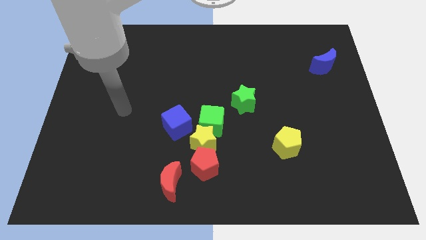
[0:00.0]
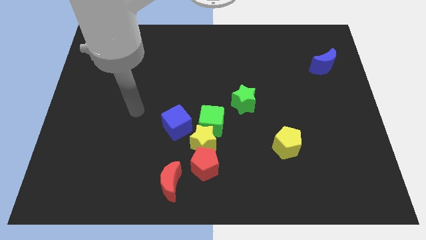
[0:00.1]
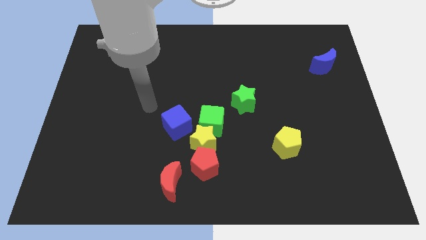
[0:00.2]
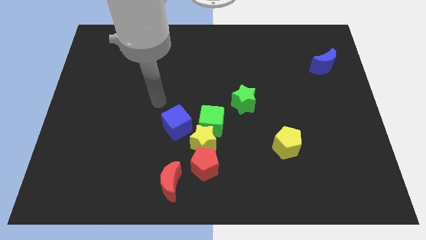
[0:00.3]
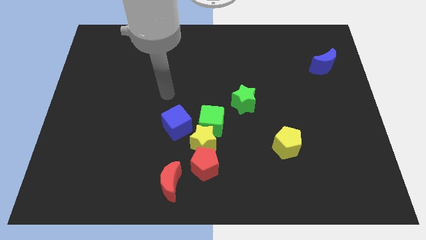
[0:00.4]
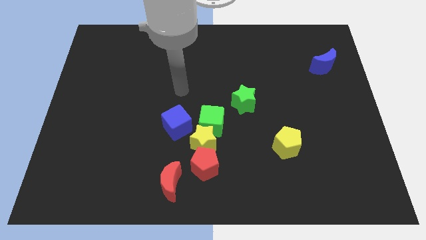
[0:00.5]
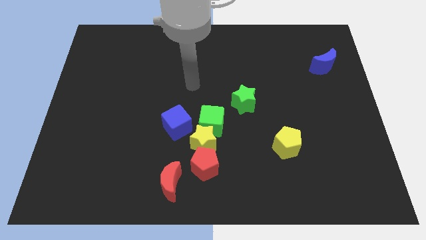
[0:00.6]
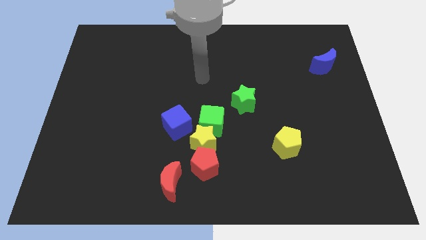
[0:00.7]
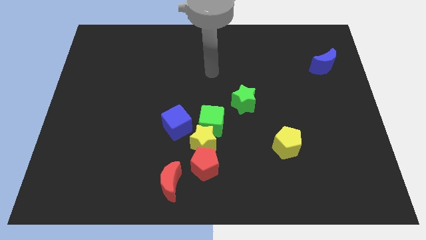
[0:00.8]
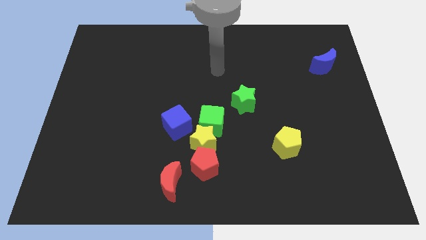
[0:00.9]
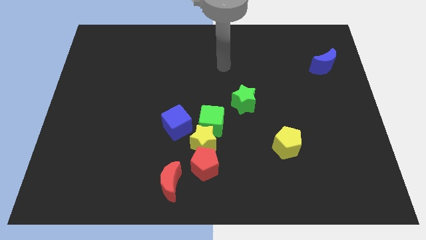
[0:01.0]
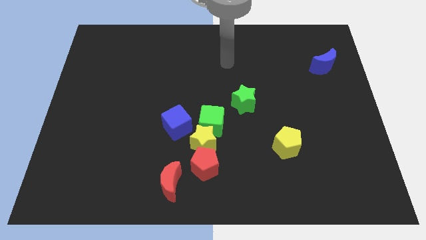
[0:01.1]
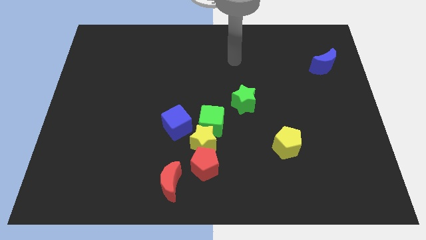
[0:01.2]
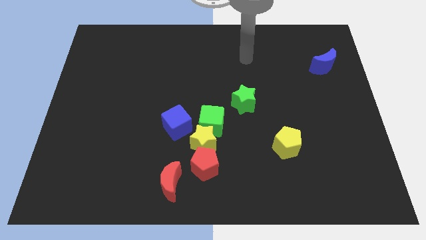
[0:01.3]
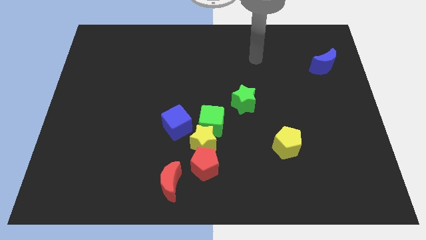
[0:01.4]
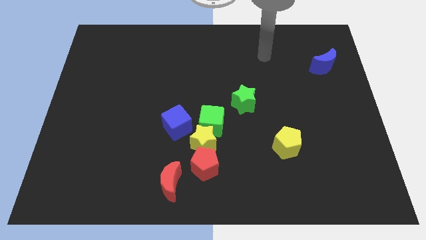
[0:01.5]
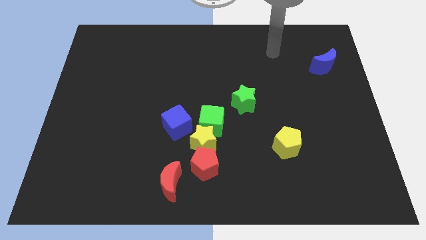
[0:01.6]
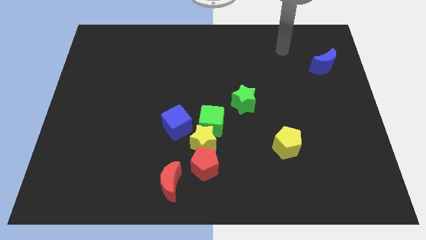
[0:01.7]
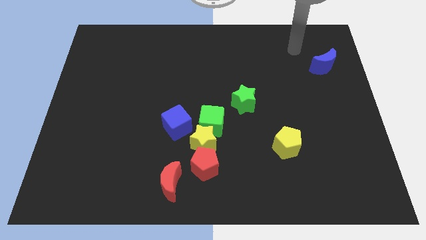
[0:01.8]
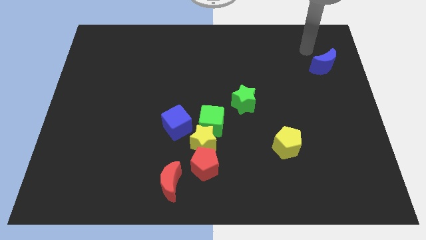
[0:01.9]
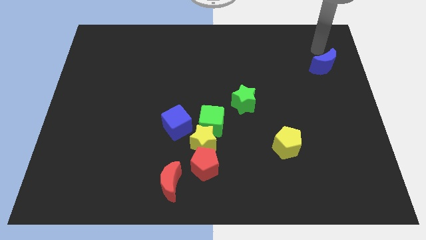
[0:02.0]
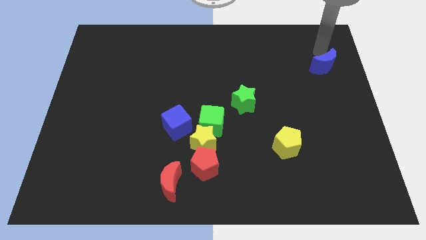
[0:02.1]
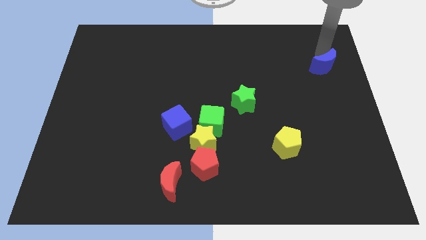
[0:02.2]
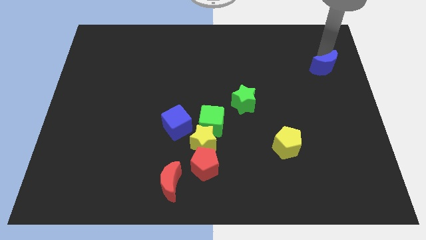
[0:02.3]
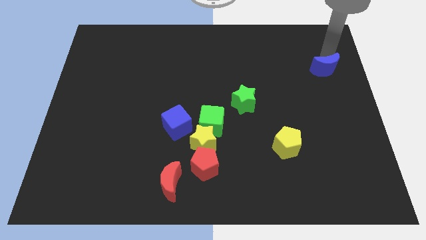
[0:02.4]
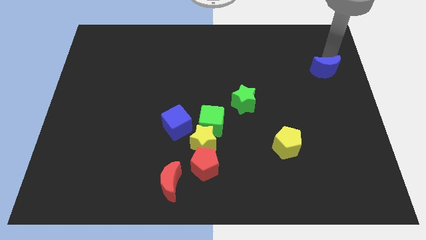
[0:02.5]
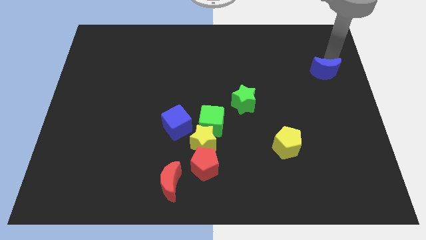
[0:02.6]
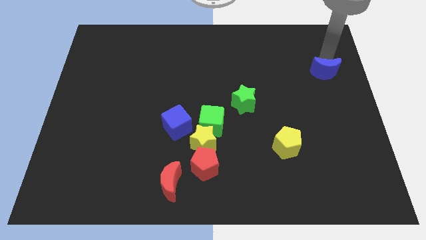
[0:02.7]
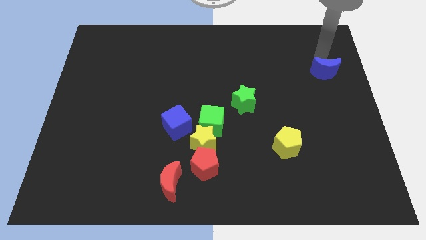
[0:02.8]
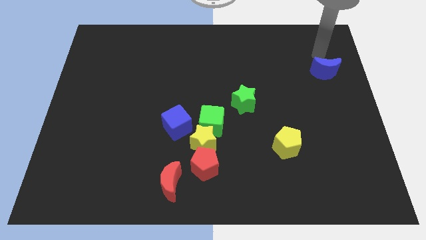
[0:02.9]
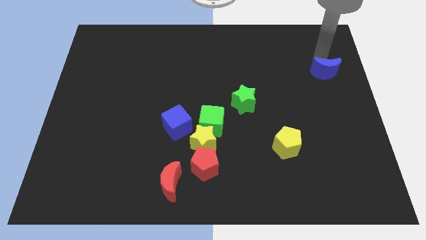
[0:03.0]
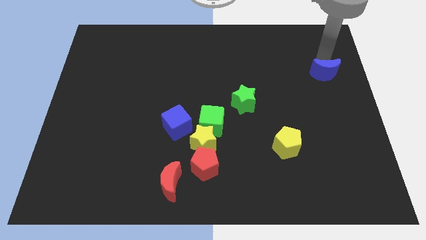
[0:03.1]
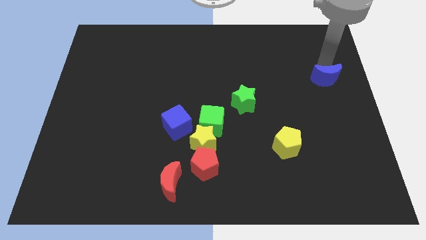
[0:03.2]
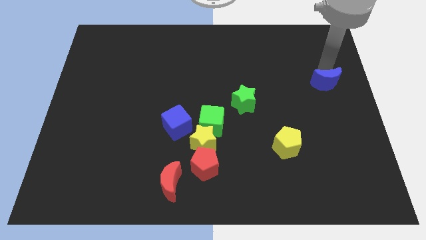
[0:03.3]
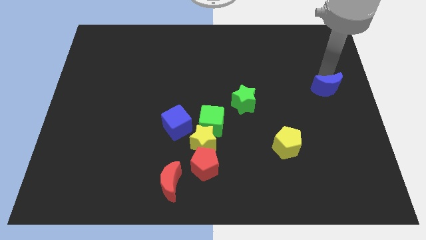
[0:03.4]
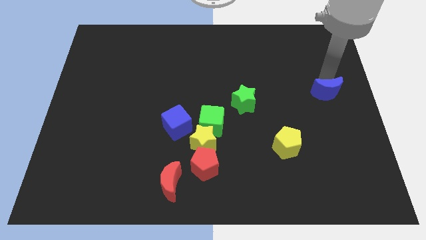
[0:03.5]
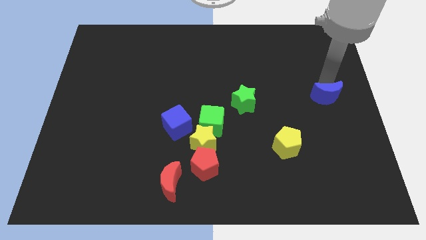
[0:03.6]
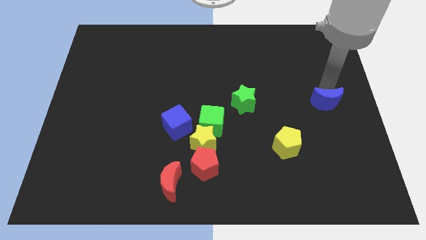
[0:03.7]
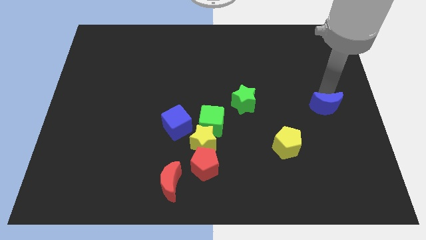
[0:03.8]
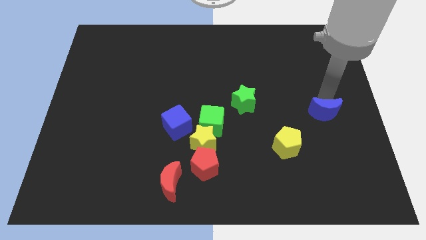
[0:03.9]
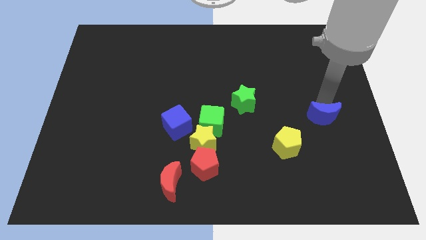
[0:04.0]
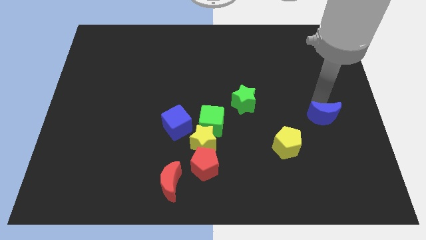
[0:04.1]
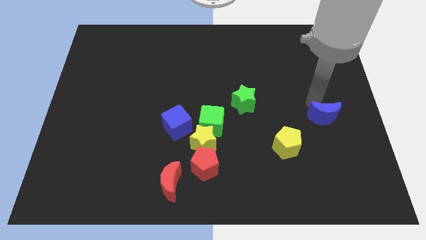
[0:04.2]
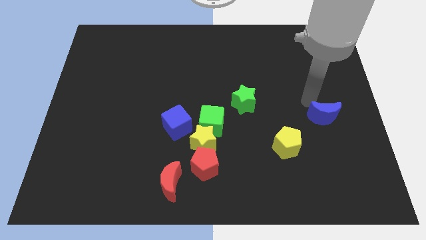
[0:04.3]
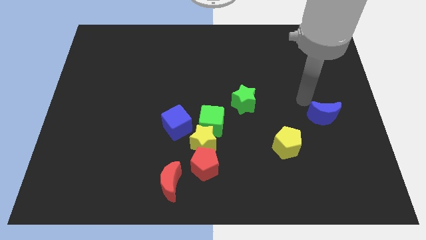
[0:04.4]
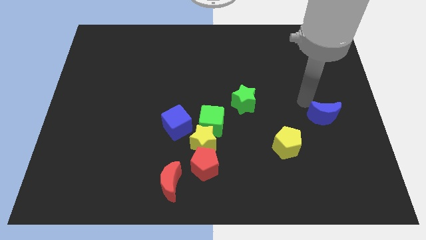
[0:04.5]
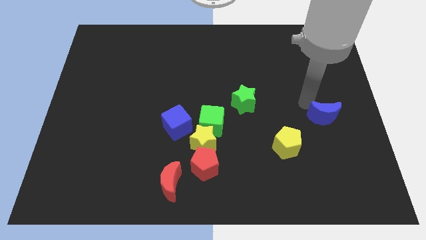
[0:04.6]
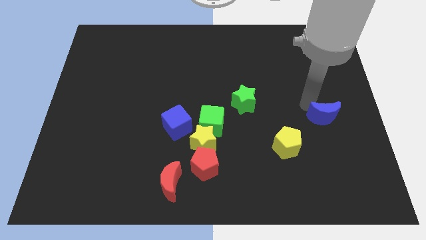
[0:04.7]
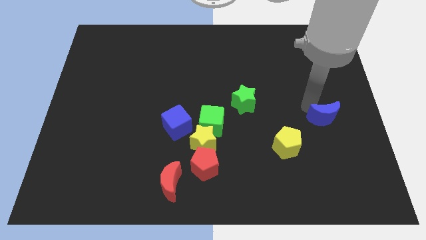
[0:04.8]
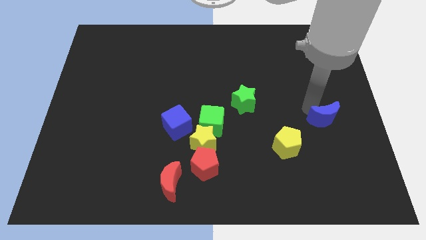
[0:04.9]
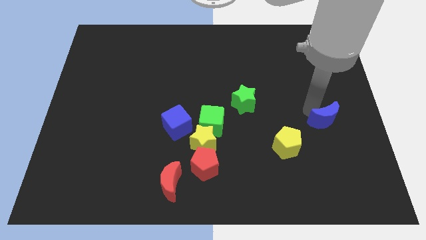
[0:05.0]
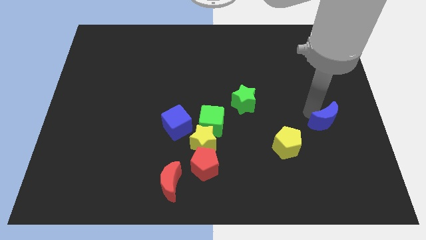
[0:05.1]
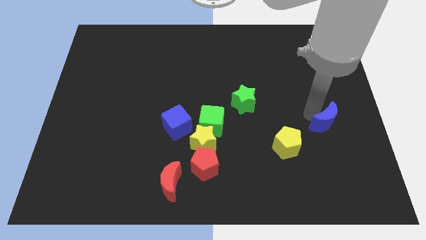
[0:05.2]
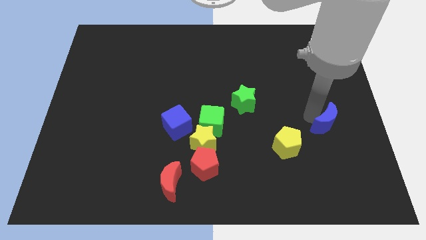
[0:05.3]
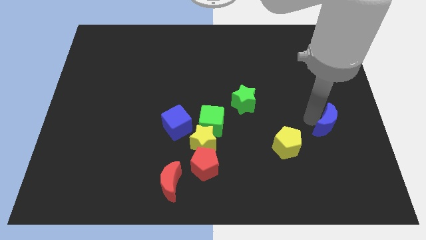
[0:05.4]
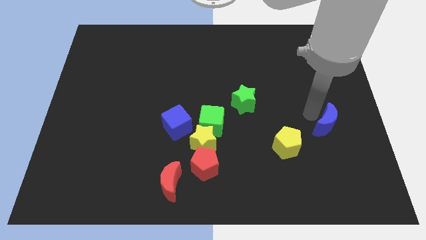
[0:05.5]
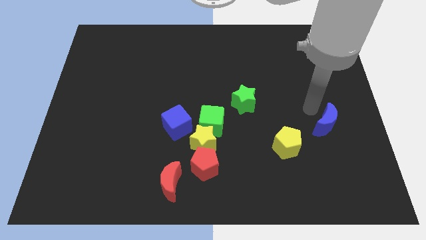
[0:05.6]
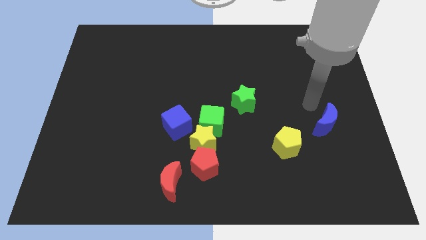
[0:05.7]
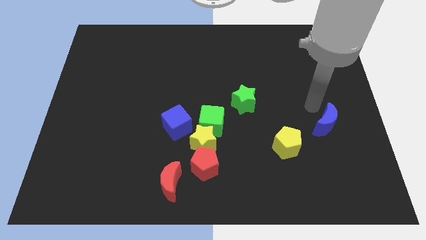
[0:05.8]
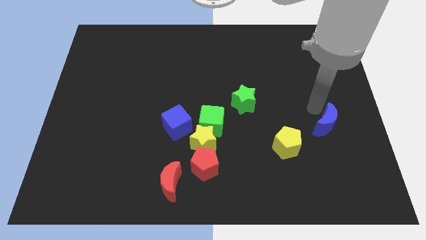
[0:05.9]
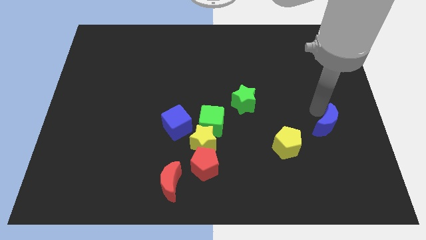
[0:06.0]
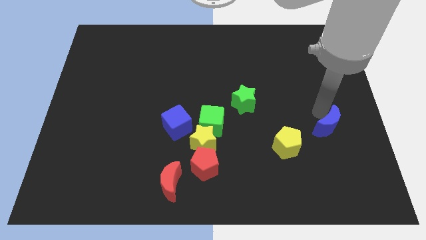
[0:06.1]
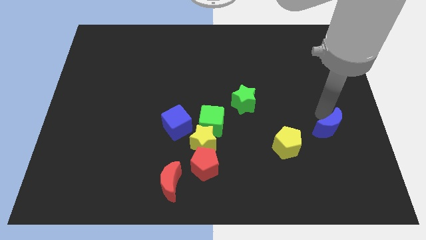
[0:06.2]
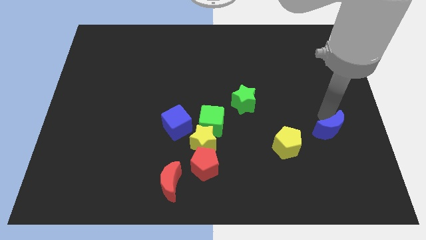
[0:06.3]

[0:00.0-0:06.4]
slide the blue moon down

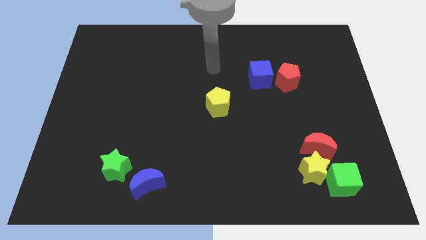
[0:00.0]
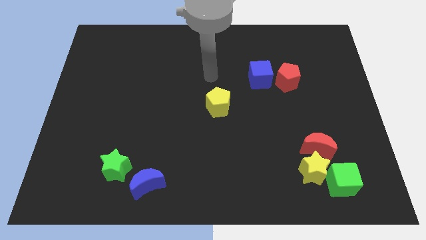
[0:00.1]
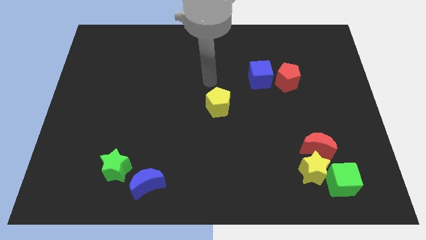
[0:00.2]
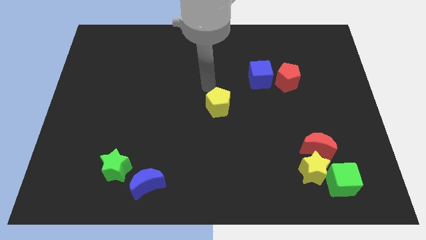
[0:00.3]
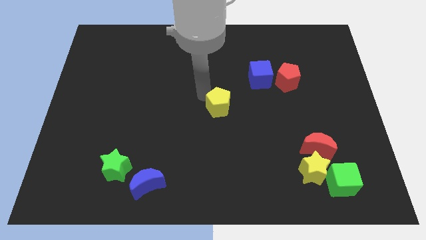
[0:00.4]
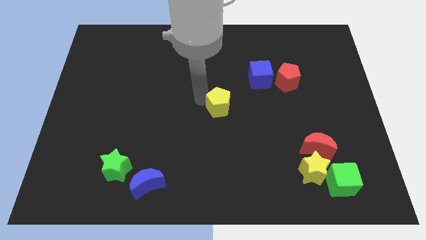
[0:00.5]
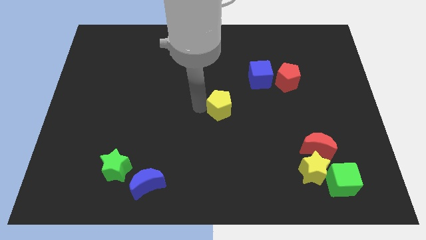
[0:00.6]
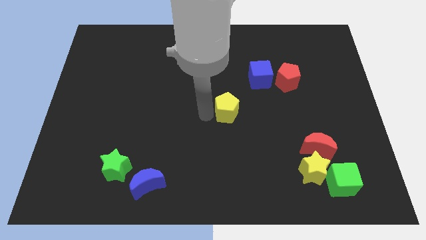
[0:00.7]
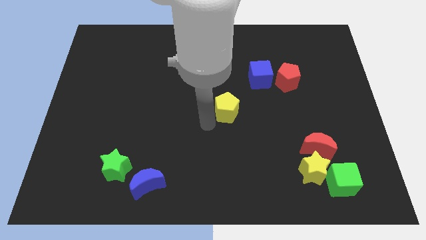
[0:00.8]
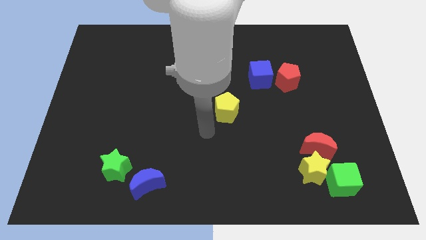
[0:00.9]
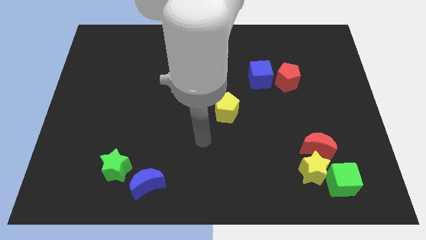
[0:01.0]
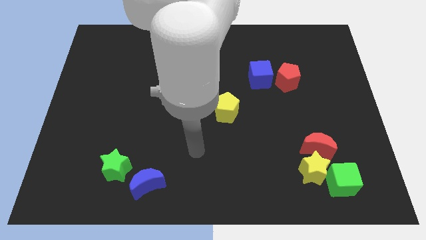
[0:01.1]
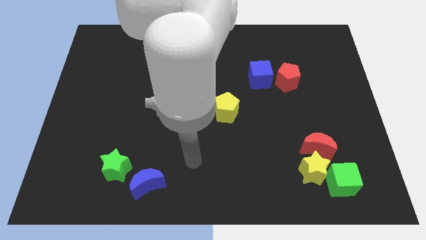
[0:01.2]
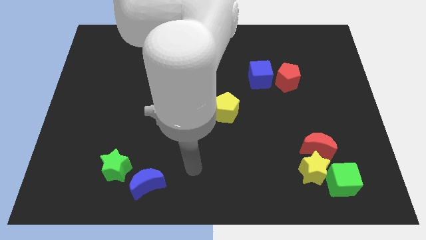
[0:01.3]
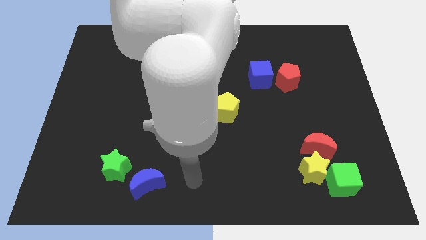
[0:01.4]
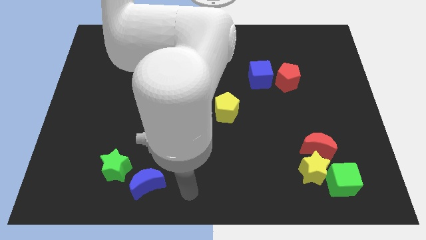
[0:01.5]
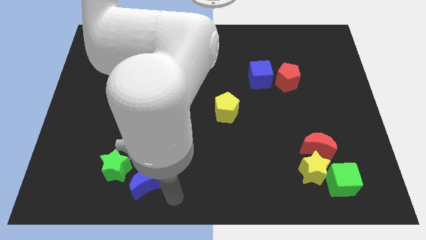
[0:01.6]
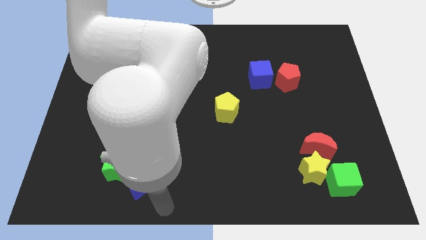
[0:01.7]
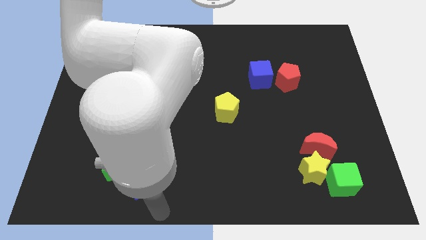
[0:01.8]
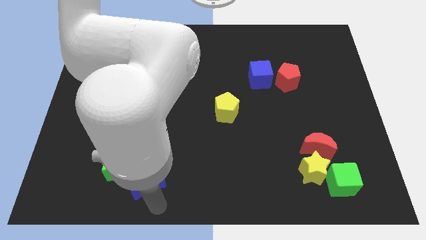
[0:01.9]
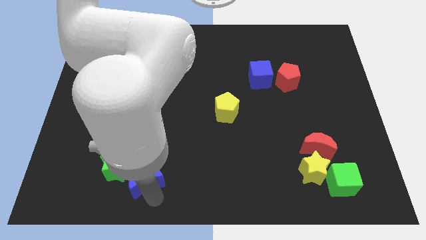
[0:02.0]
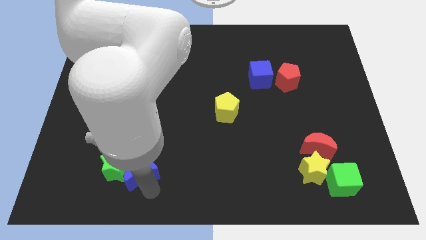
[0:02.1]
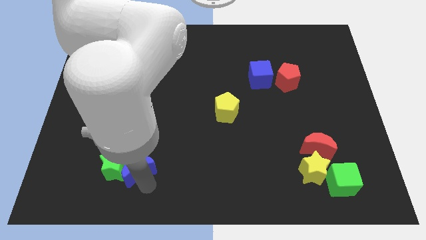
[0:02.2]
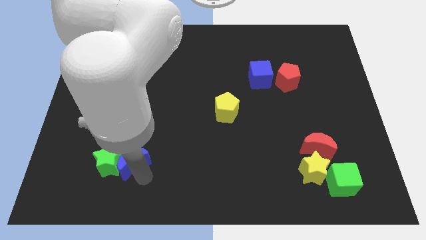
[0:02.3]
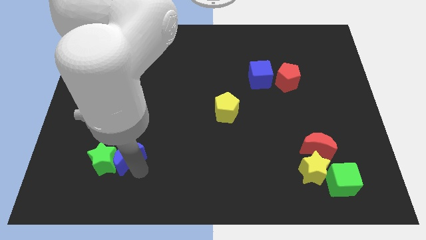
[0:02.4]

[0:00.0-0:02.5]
move the blue moon a little bit up and left
